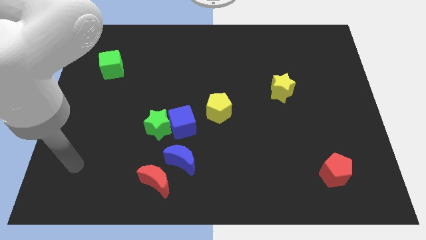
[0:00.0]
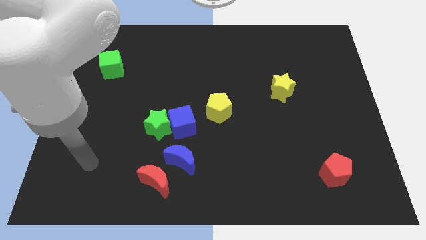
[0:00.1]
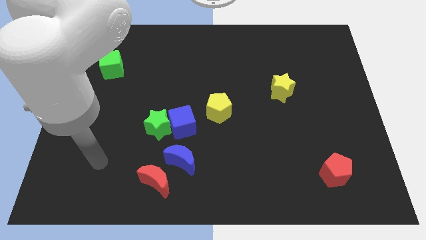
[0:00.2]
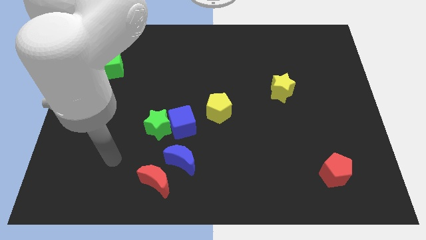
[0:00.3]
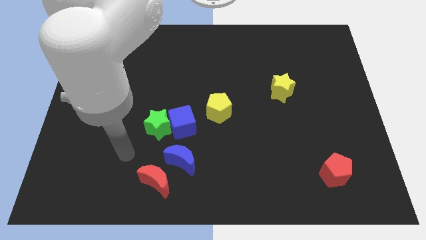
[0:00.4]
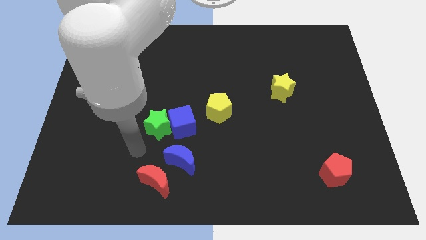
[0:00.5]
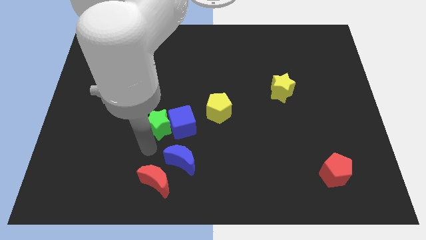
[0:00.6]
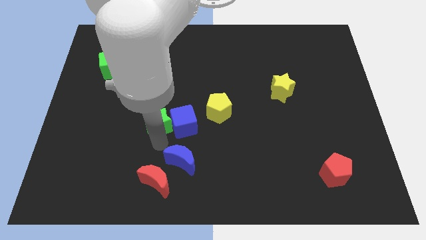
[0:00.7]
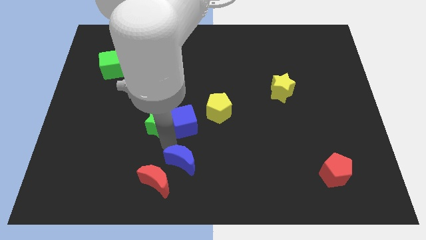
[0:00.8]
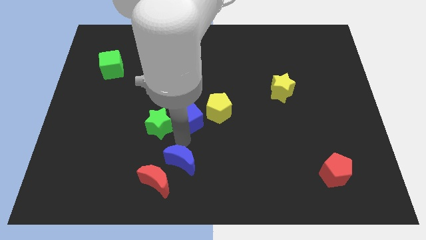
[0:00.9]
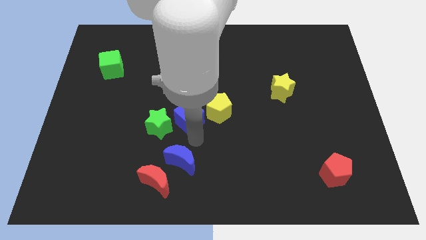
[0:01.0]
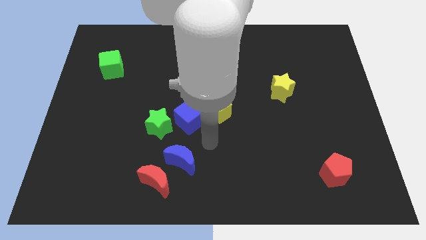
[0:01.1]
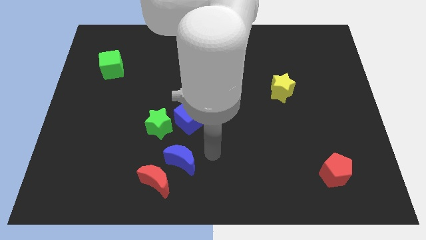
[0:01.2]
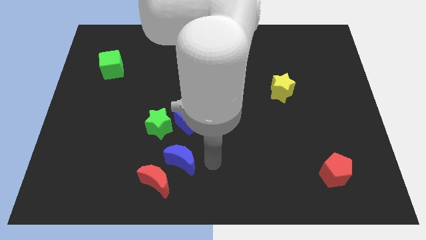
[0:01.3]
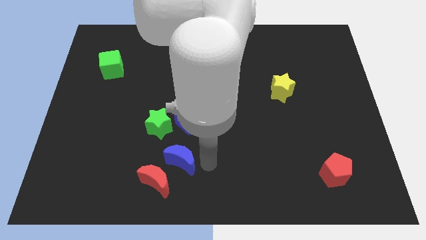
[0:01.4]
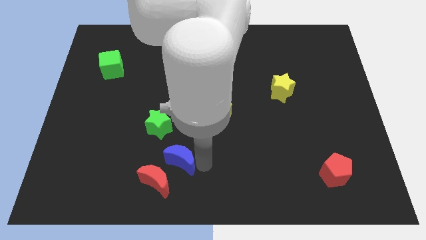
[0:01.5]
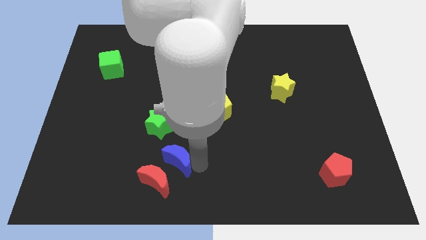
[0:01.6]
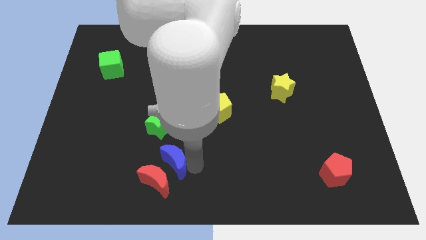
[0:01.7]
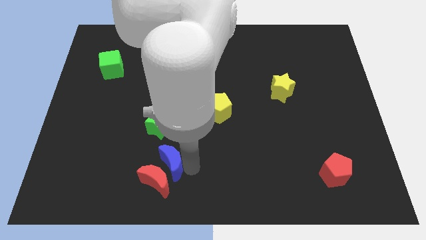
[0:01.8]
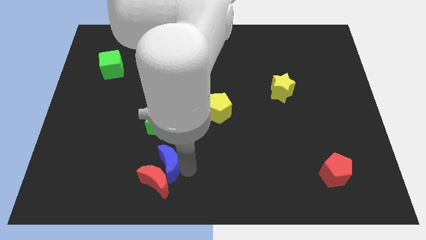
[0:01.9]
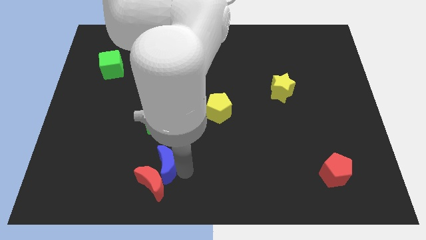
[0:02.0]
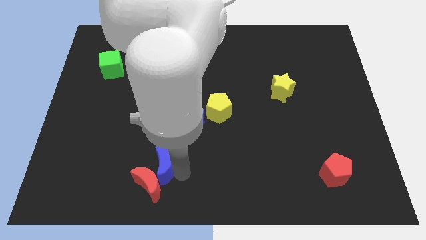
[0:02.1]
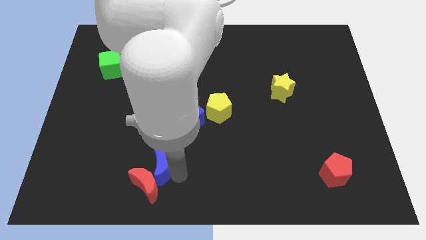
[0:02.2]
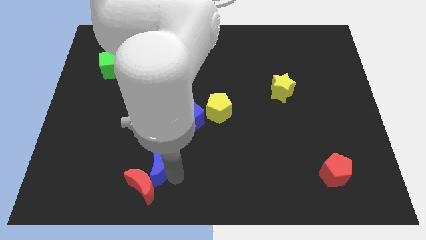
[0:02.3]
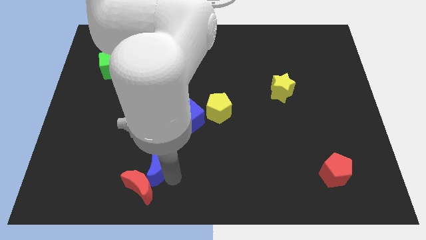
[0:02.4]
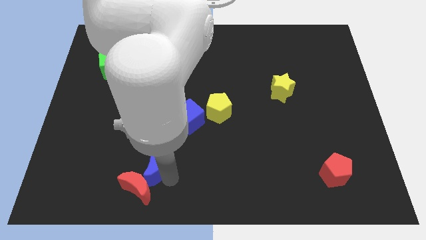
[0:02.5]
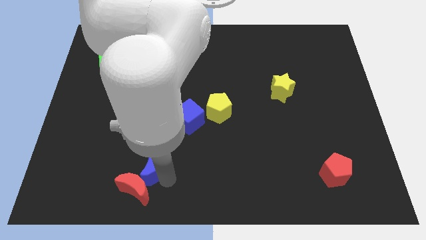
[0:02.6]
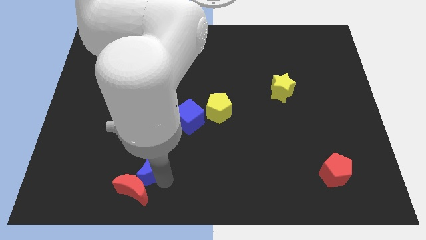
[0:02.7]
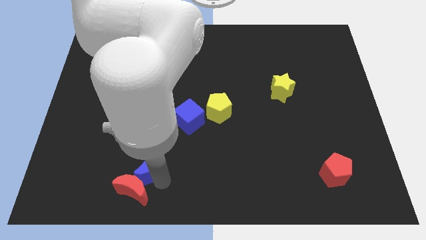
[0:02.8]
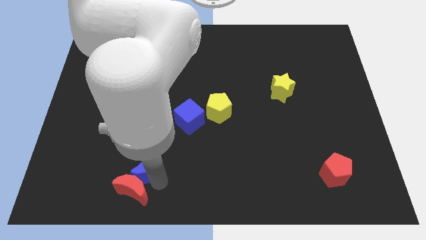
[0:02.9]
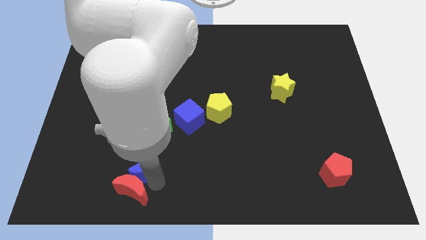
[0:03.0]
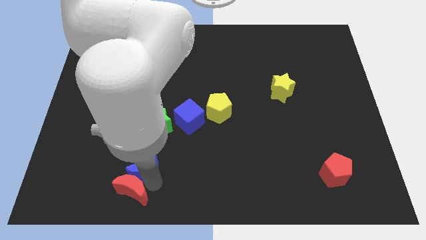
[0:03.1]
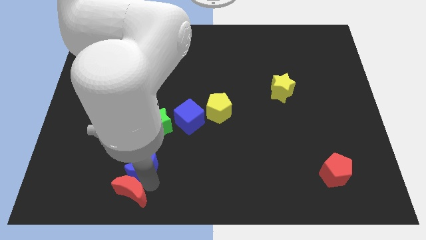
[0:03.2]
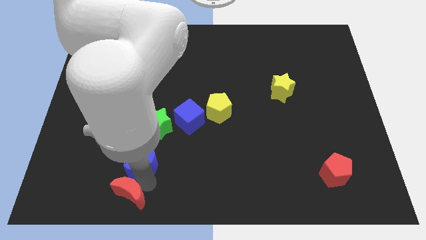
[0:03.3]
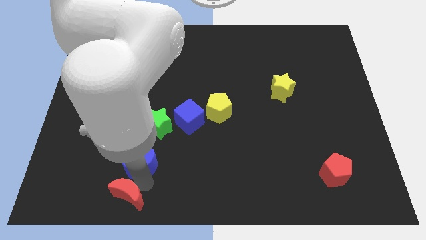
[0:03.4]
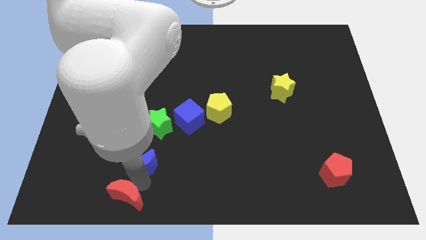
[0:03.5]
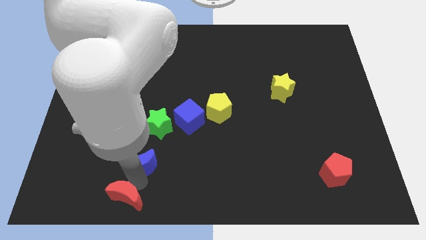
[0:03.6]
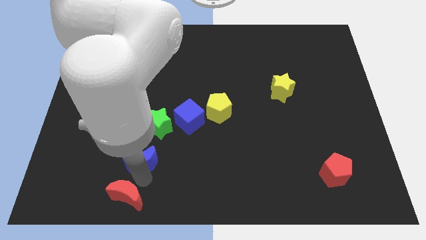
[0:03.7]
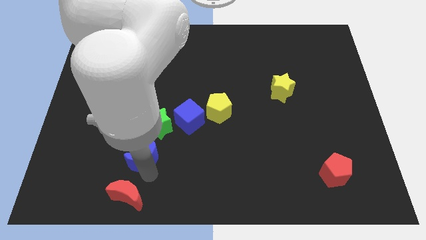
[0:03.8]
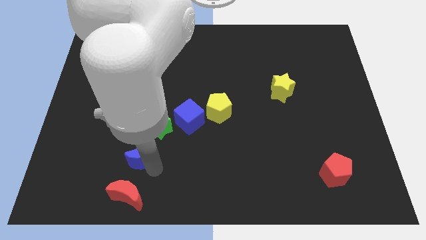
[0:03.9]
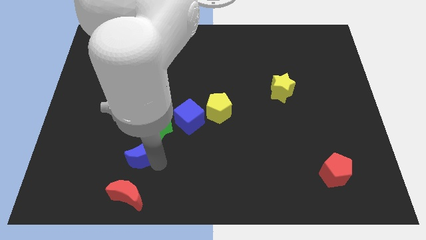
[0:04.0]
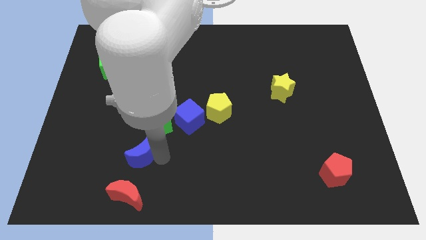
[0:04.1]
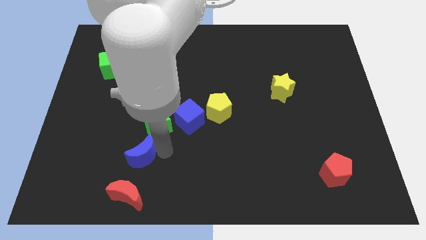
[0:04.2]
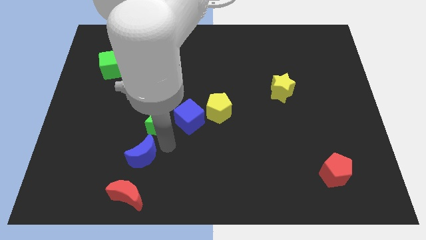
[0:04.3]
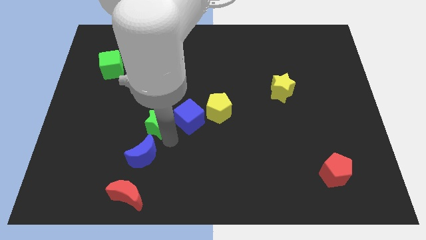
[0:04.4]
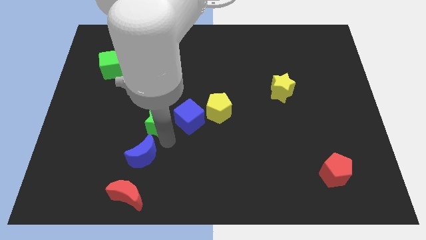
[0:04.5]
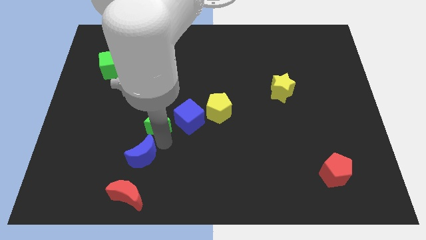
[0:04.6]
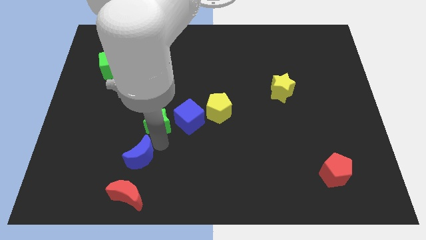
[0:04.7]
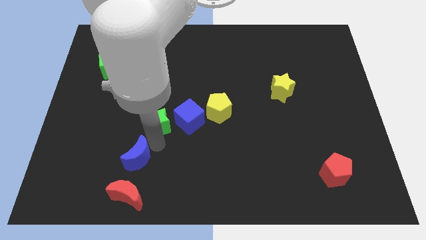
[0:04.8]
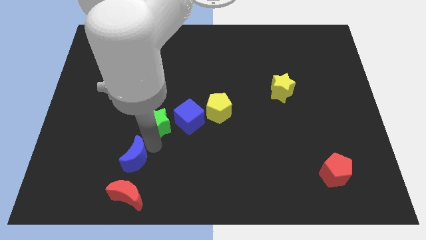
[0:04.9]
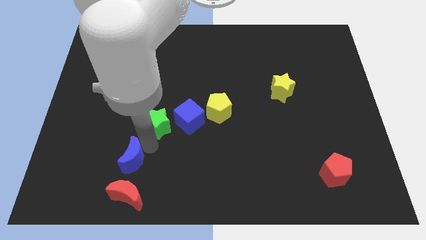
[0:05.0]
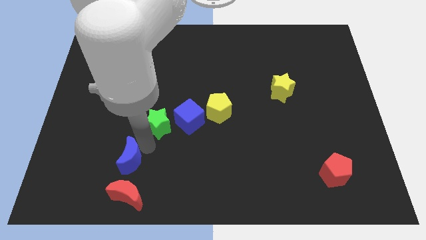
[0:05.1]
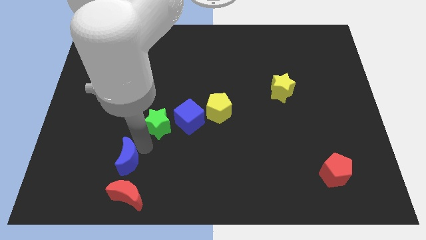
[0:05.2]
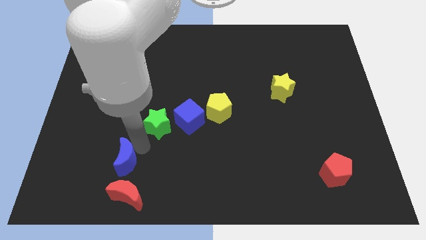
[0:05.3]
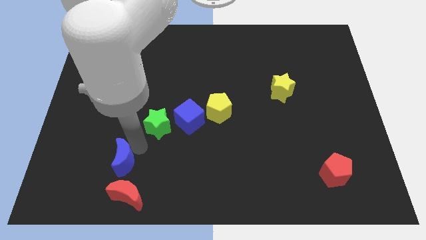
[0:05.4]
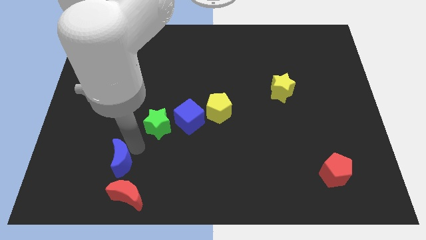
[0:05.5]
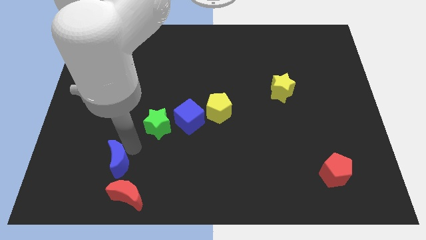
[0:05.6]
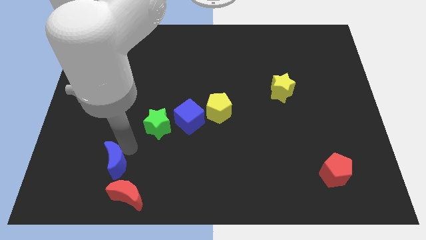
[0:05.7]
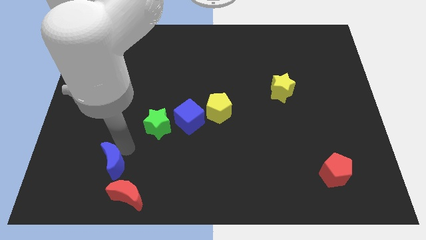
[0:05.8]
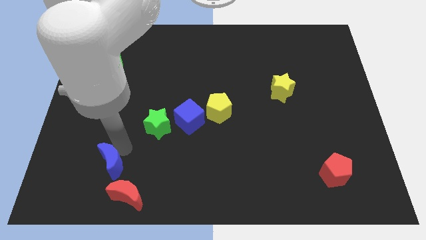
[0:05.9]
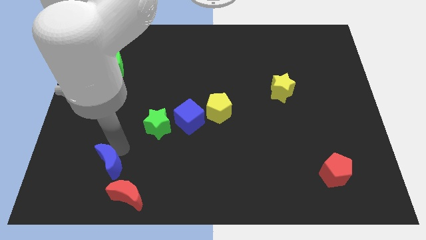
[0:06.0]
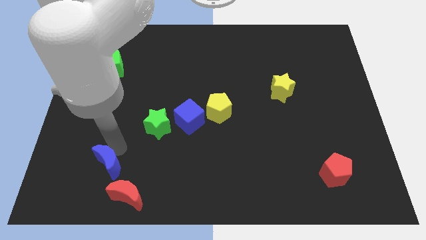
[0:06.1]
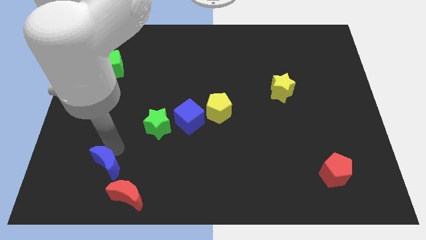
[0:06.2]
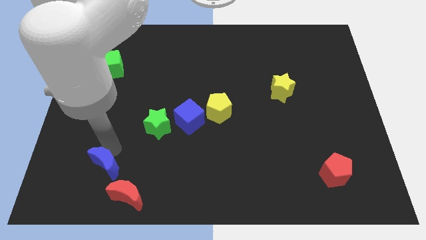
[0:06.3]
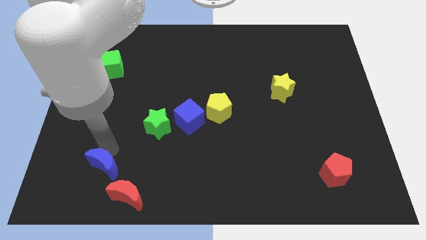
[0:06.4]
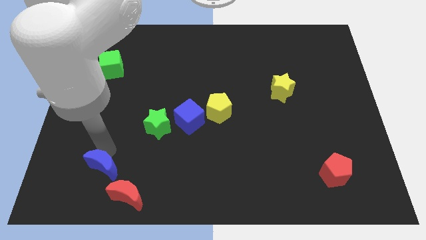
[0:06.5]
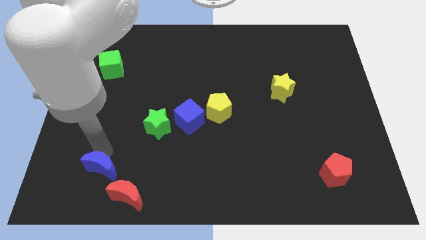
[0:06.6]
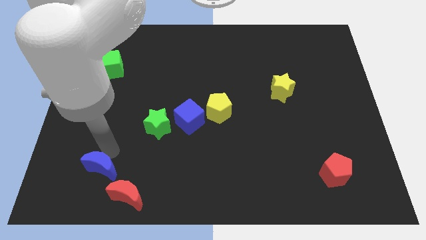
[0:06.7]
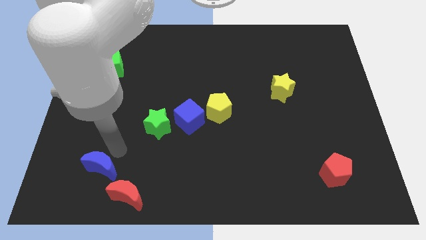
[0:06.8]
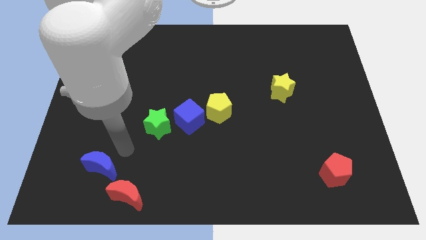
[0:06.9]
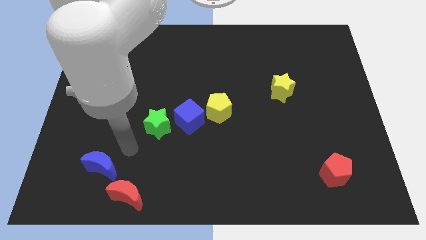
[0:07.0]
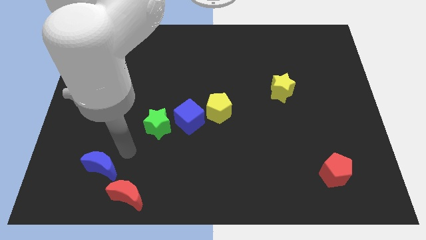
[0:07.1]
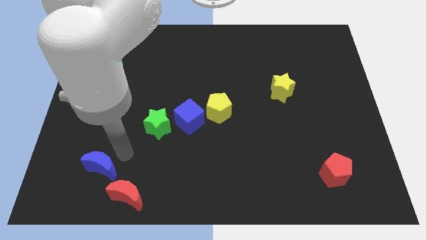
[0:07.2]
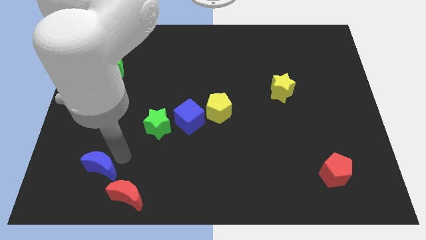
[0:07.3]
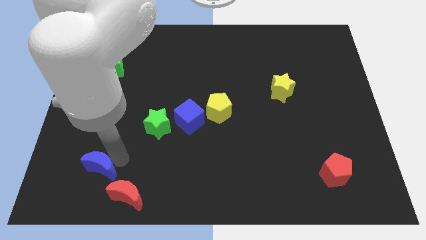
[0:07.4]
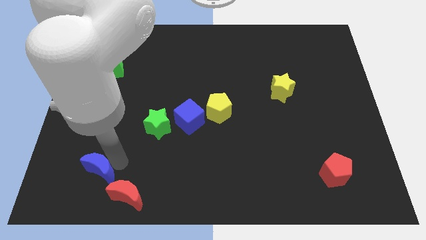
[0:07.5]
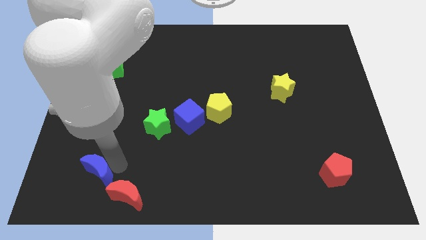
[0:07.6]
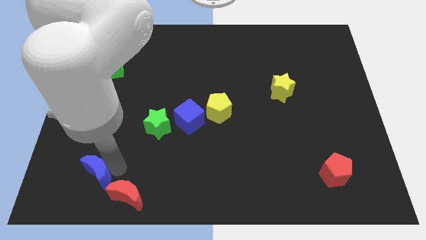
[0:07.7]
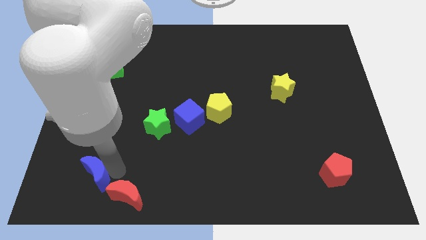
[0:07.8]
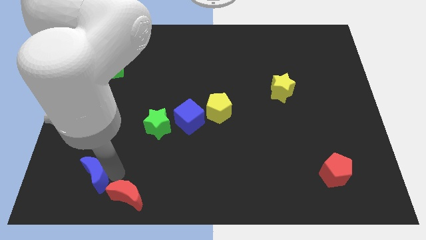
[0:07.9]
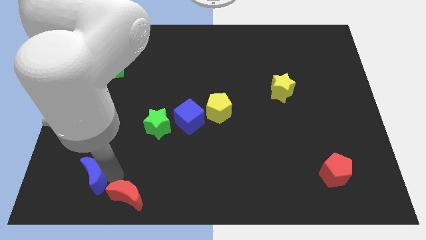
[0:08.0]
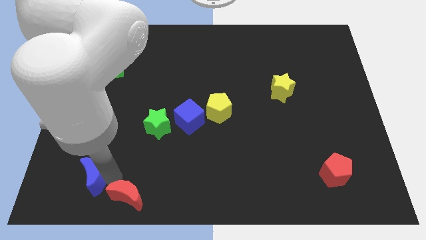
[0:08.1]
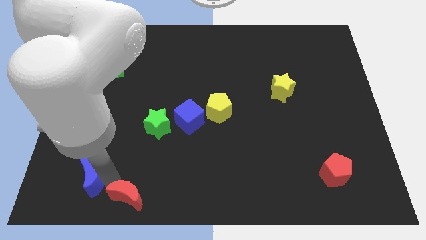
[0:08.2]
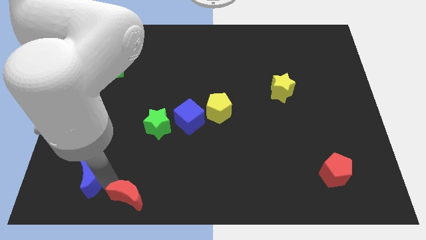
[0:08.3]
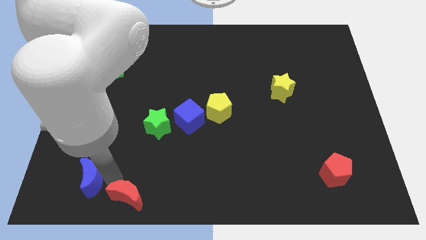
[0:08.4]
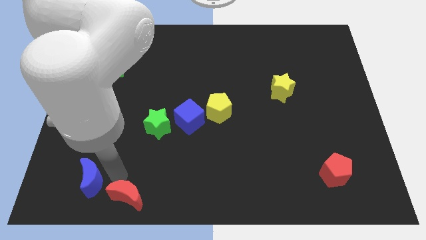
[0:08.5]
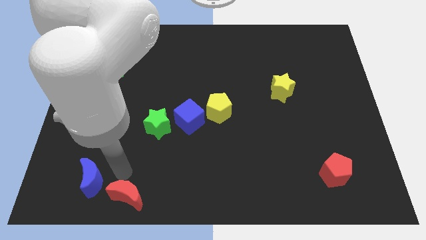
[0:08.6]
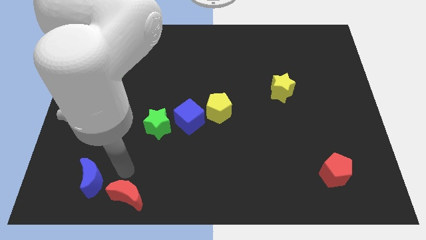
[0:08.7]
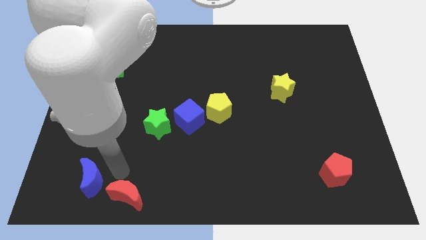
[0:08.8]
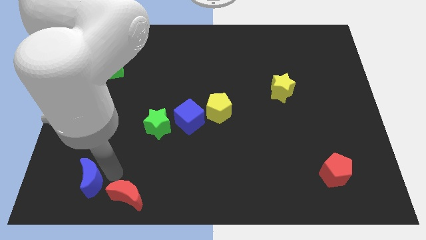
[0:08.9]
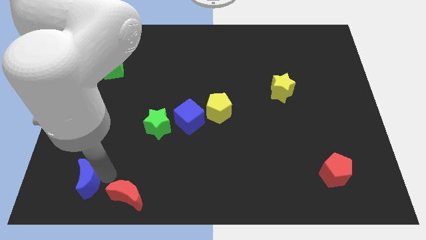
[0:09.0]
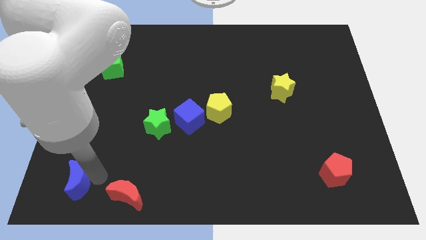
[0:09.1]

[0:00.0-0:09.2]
push the blue moon to the bottom left
